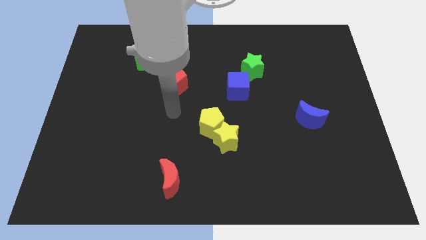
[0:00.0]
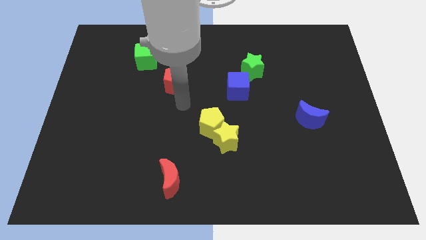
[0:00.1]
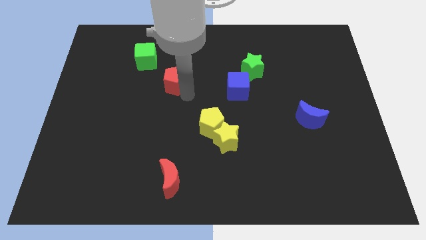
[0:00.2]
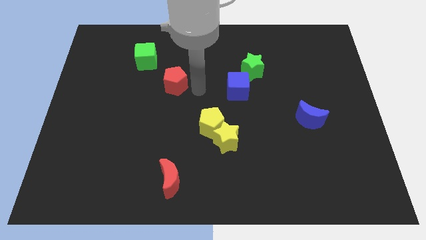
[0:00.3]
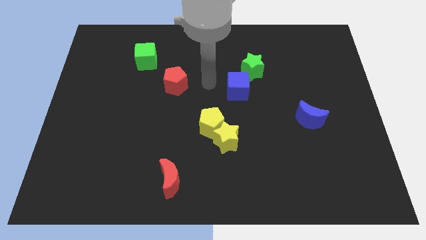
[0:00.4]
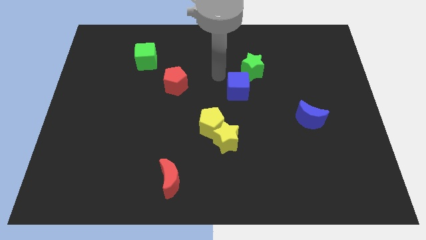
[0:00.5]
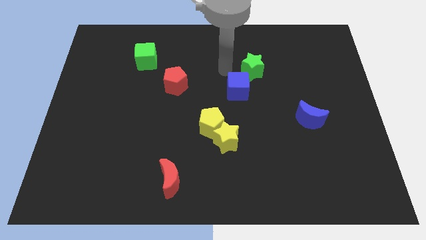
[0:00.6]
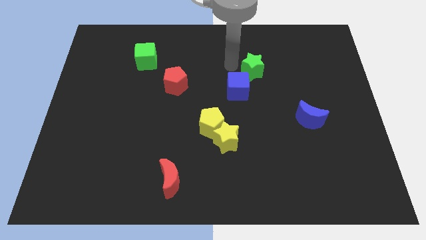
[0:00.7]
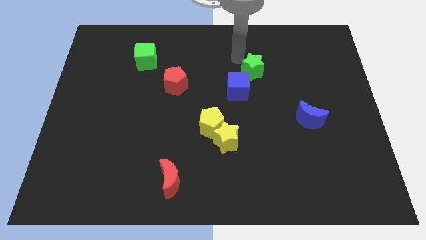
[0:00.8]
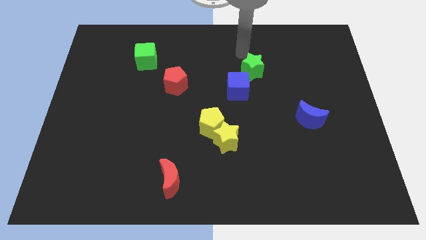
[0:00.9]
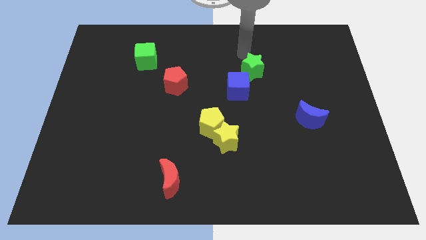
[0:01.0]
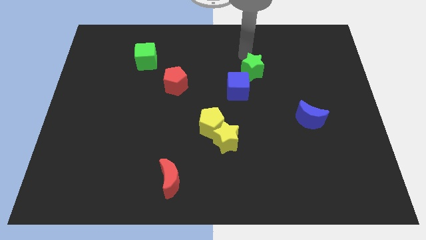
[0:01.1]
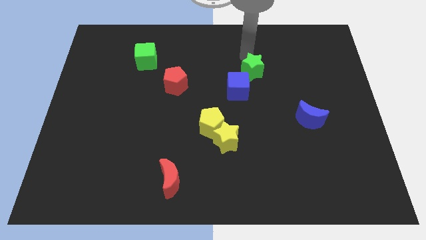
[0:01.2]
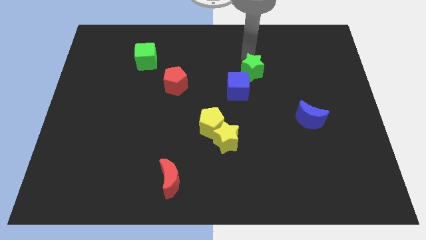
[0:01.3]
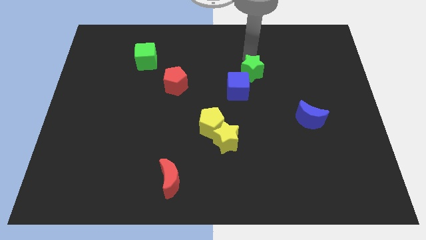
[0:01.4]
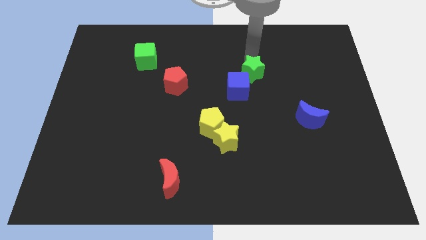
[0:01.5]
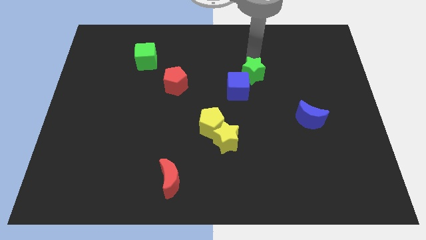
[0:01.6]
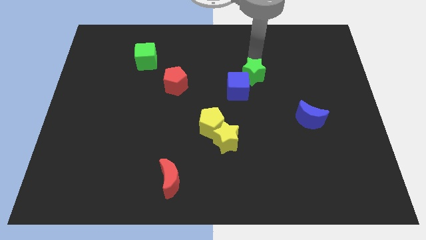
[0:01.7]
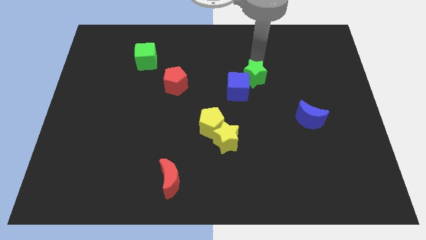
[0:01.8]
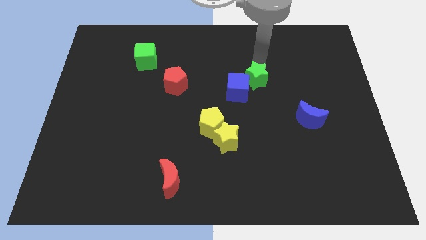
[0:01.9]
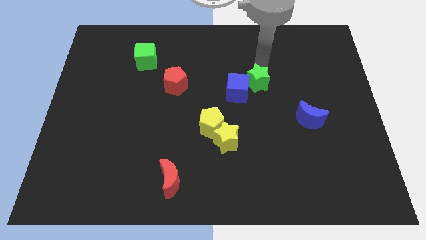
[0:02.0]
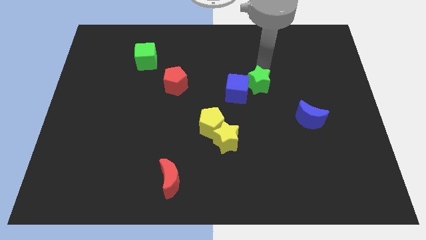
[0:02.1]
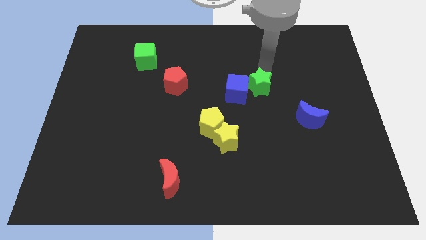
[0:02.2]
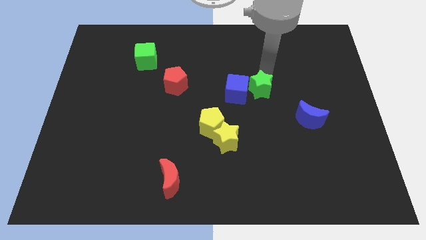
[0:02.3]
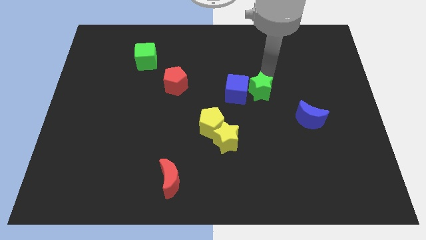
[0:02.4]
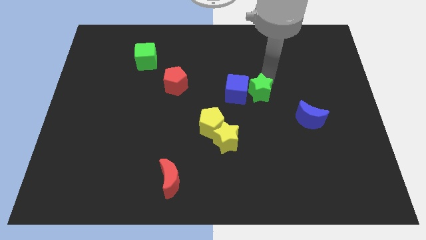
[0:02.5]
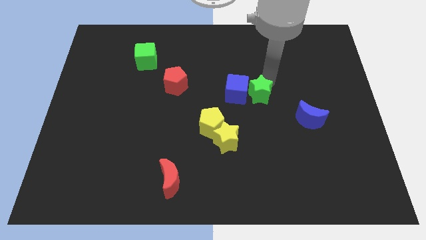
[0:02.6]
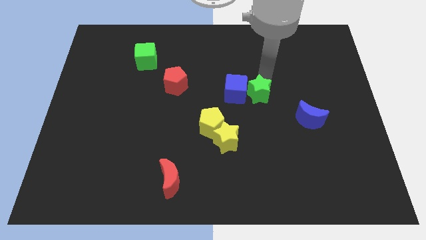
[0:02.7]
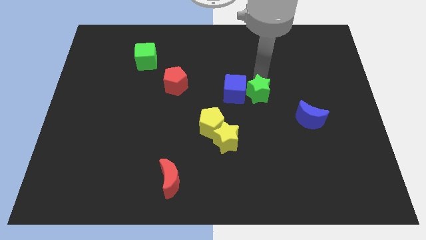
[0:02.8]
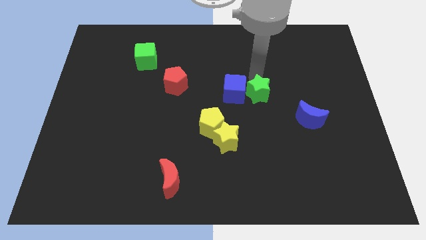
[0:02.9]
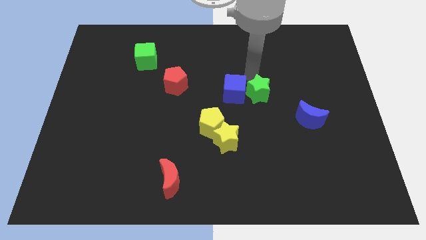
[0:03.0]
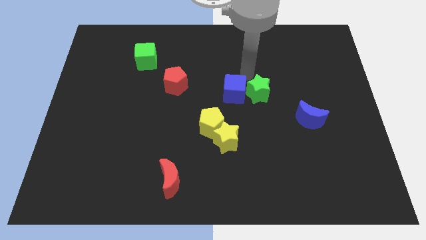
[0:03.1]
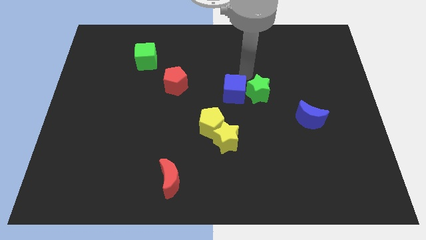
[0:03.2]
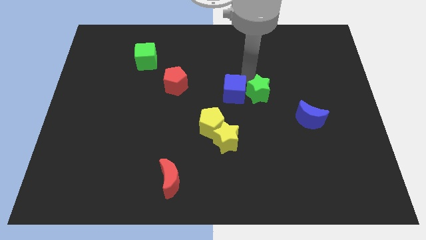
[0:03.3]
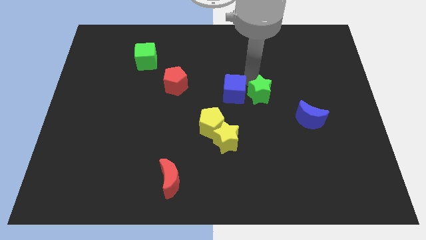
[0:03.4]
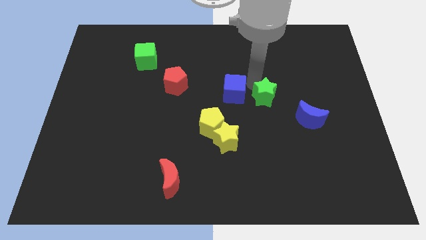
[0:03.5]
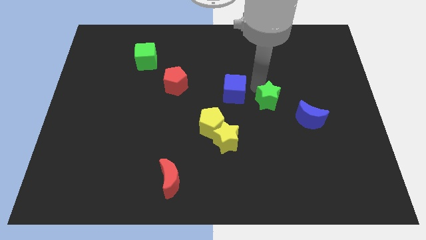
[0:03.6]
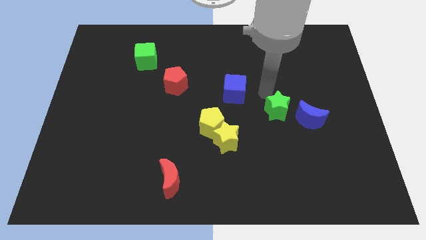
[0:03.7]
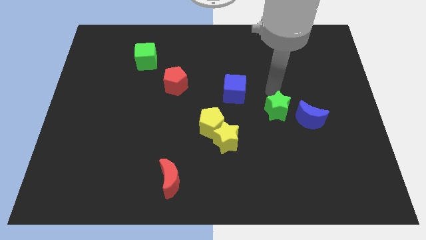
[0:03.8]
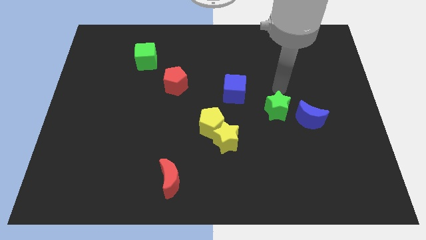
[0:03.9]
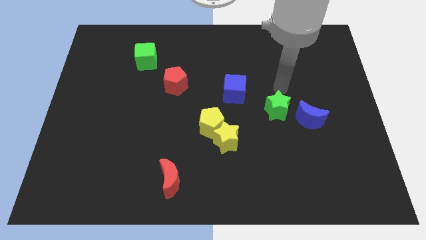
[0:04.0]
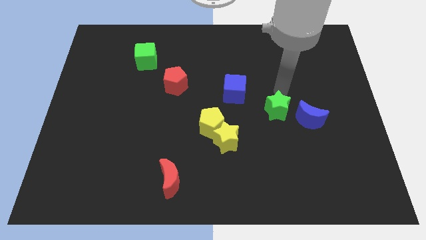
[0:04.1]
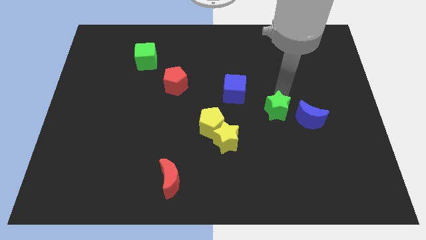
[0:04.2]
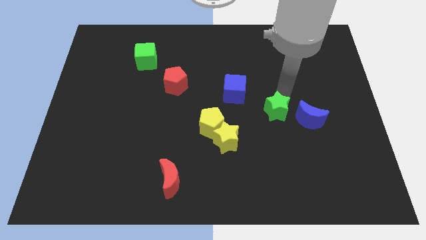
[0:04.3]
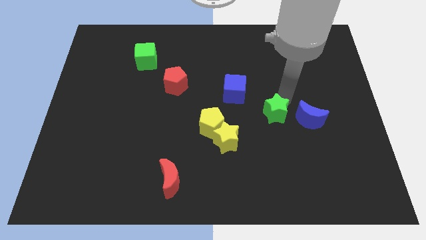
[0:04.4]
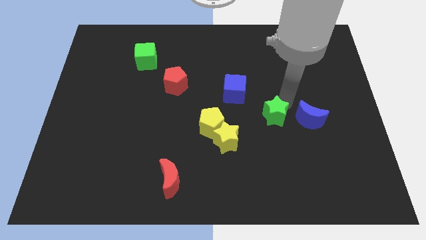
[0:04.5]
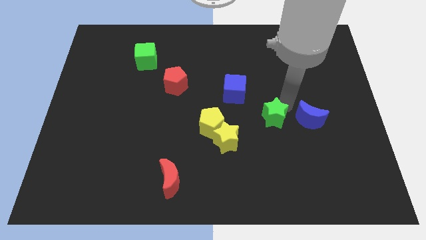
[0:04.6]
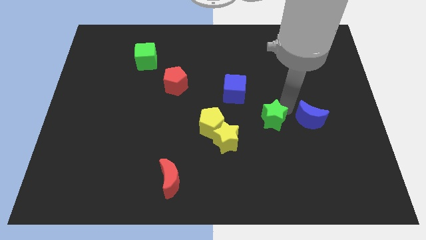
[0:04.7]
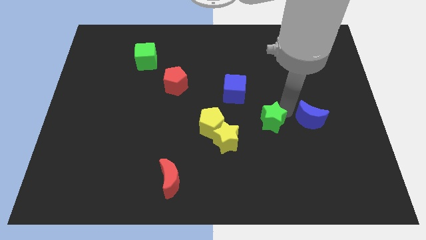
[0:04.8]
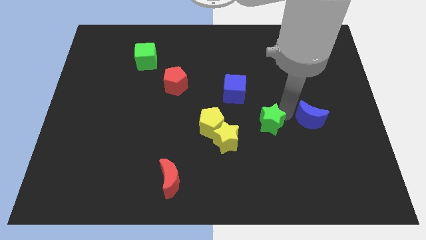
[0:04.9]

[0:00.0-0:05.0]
push the green star to the right side of the yellow star

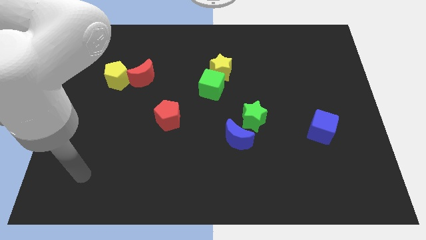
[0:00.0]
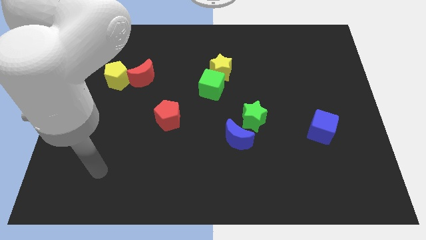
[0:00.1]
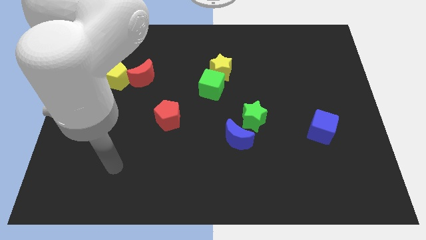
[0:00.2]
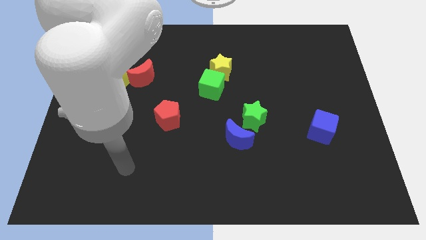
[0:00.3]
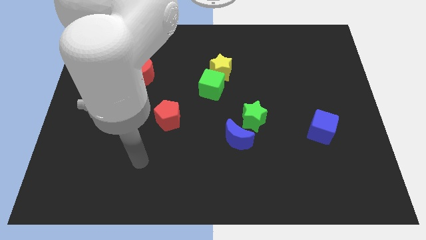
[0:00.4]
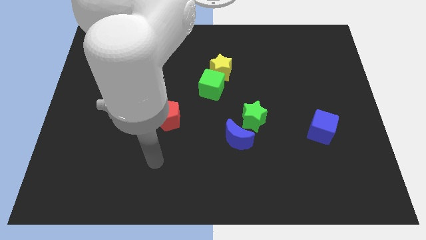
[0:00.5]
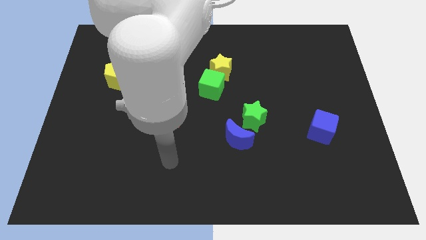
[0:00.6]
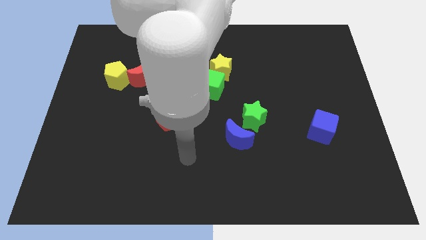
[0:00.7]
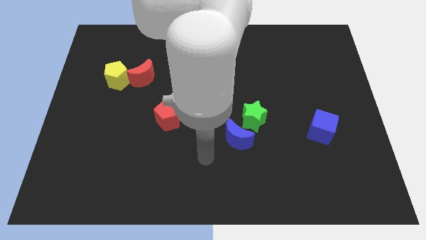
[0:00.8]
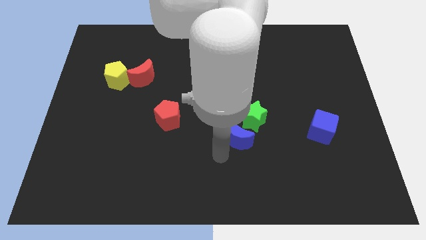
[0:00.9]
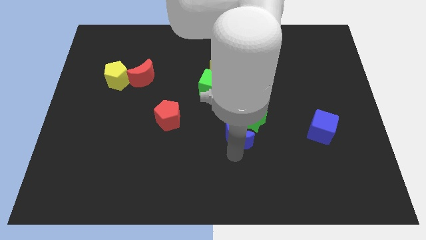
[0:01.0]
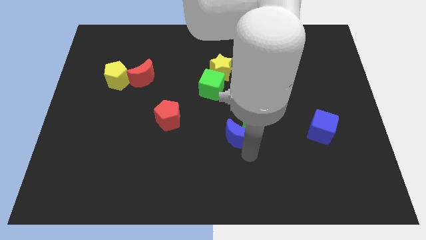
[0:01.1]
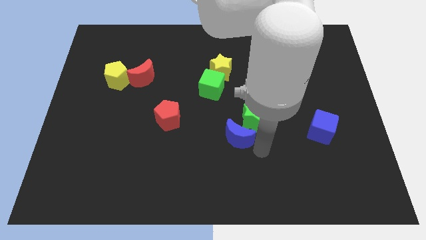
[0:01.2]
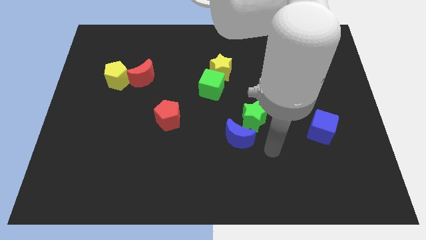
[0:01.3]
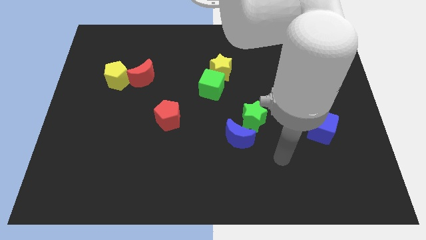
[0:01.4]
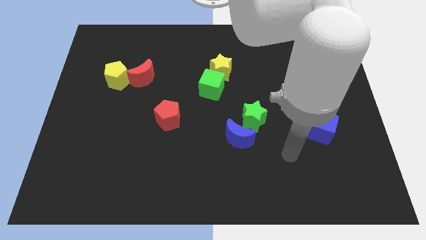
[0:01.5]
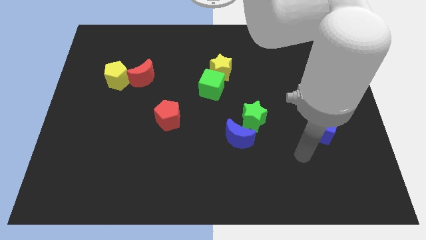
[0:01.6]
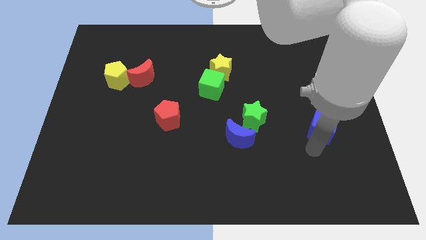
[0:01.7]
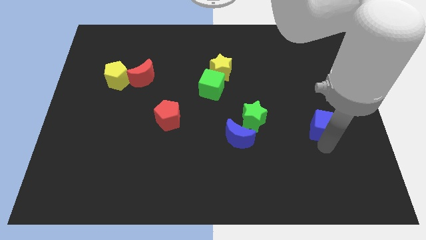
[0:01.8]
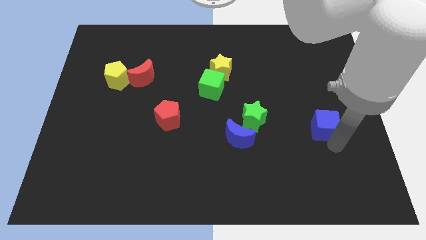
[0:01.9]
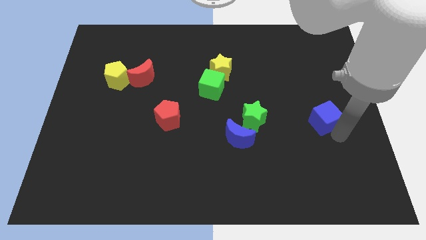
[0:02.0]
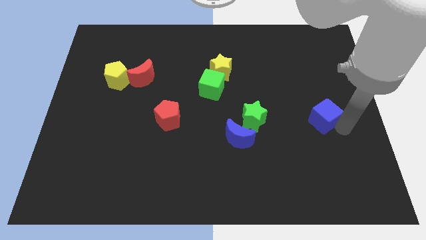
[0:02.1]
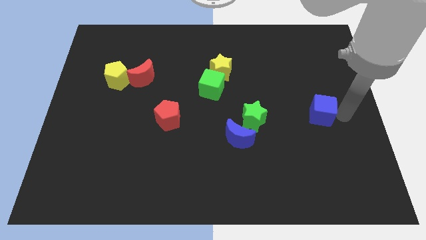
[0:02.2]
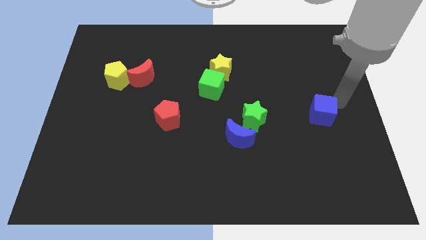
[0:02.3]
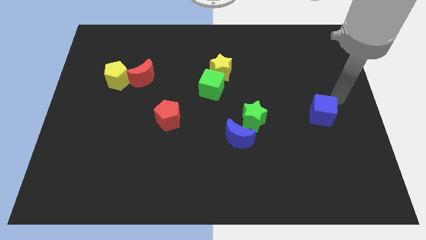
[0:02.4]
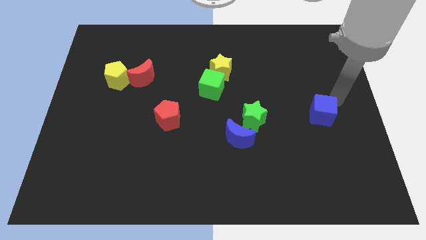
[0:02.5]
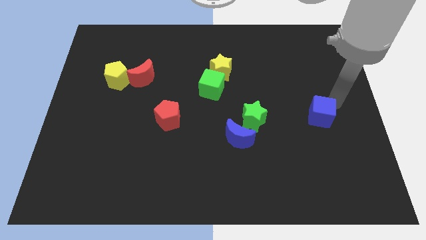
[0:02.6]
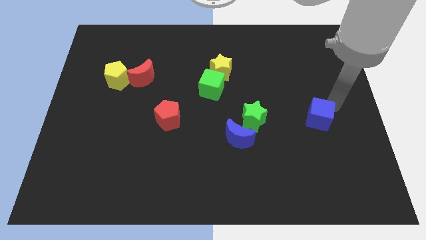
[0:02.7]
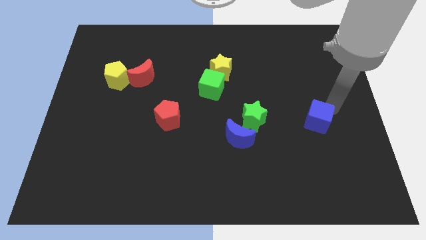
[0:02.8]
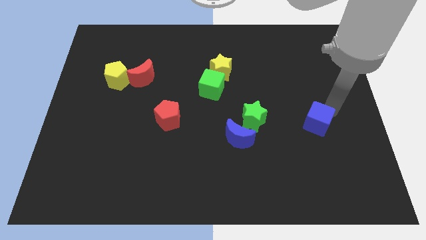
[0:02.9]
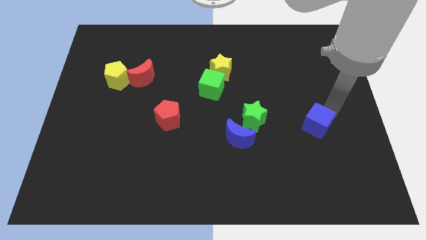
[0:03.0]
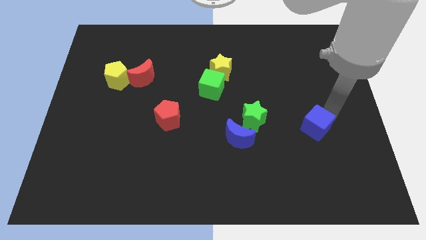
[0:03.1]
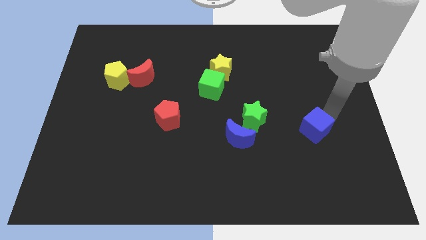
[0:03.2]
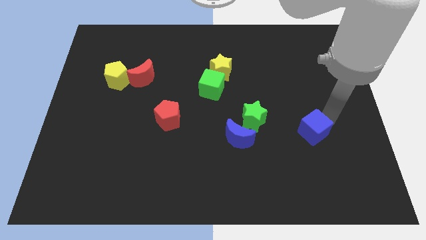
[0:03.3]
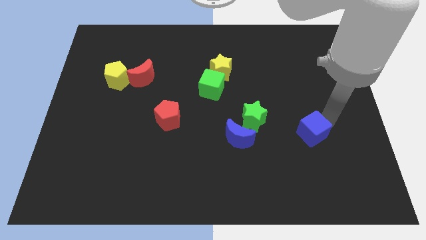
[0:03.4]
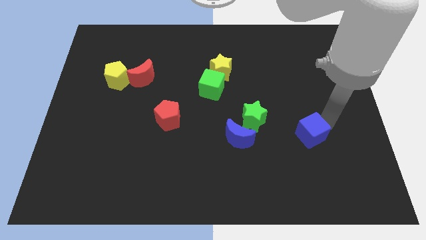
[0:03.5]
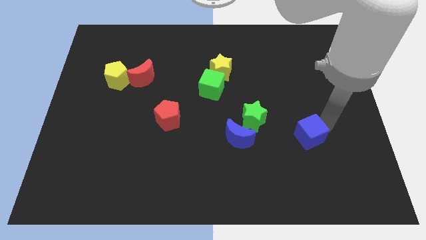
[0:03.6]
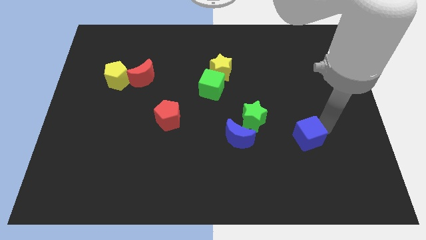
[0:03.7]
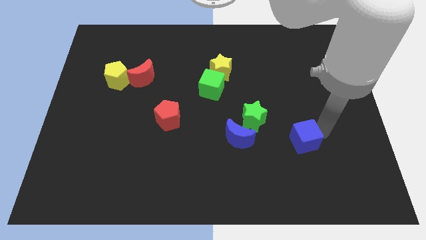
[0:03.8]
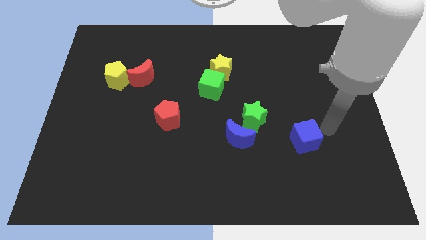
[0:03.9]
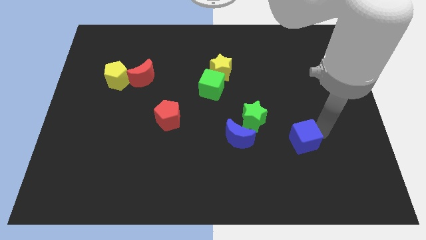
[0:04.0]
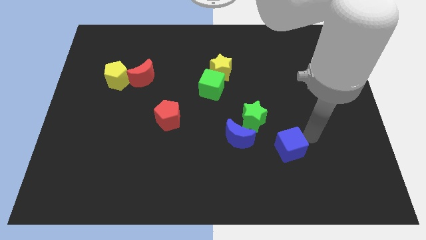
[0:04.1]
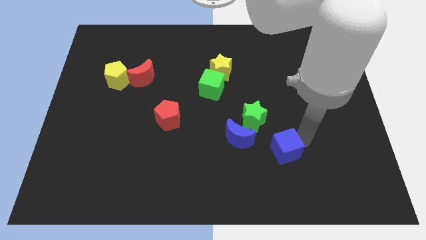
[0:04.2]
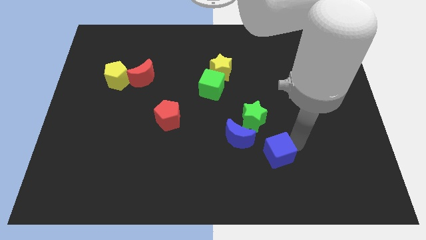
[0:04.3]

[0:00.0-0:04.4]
move the blue cube to the bottom side of the green star
